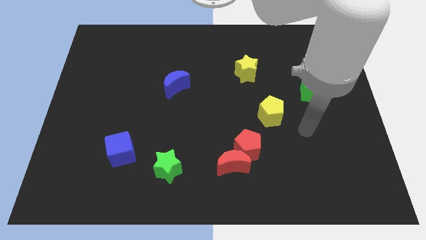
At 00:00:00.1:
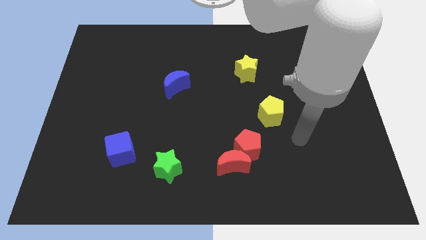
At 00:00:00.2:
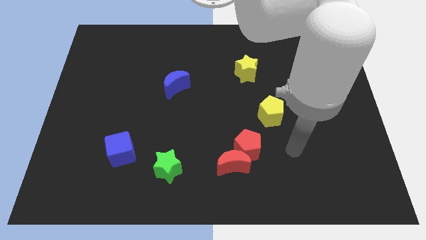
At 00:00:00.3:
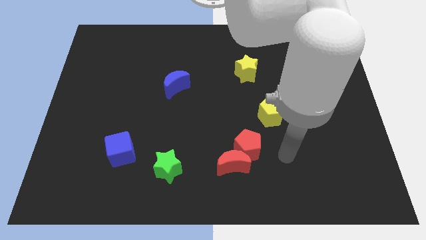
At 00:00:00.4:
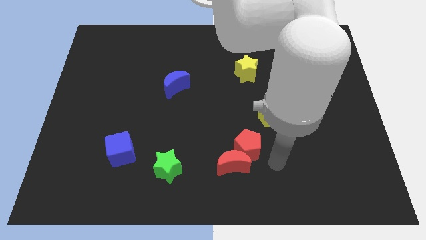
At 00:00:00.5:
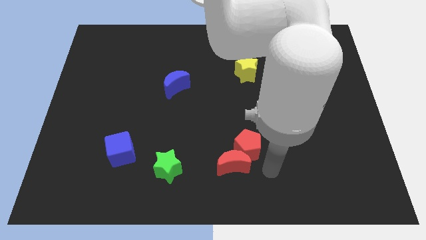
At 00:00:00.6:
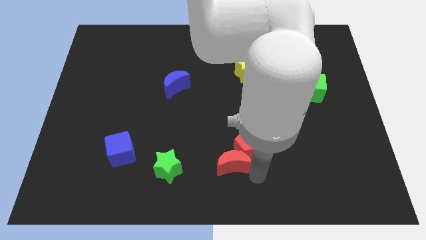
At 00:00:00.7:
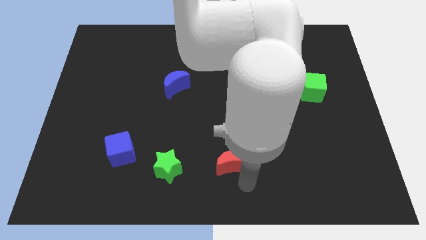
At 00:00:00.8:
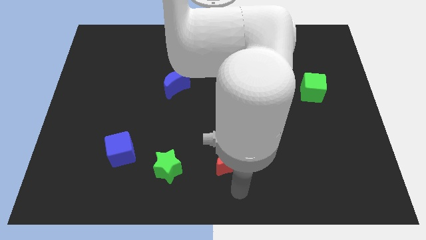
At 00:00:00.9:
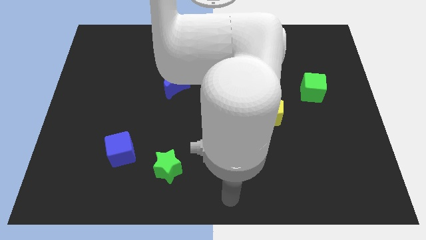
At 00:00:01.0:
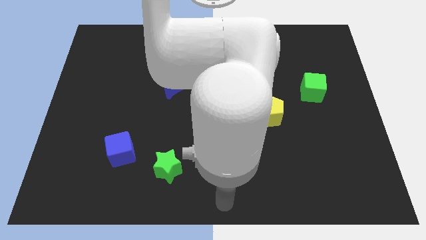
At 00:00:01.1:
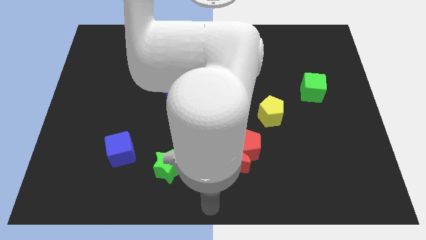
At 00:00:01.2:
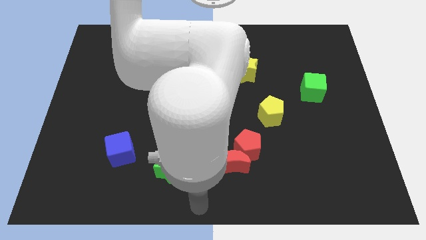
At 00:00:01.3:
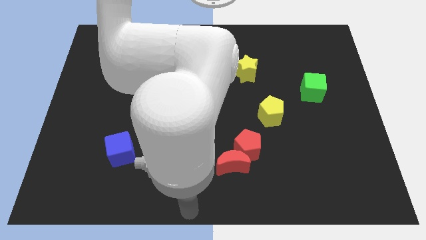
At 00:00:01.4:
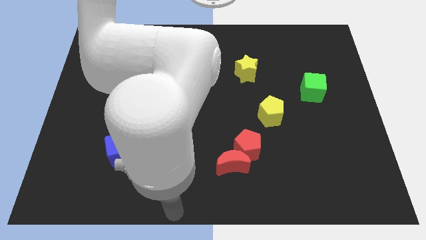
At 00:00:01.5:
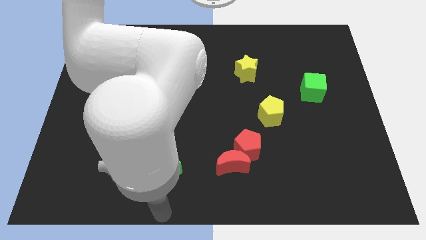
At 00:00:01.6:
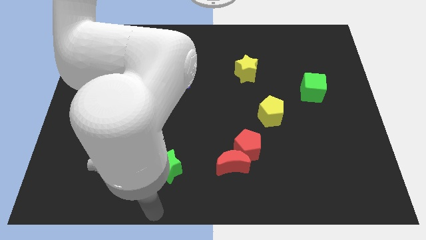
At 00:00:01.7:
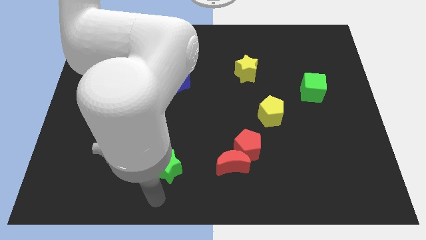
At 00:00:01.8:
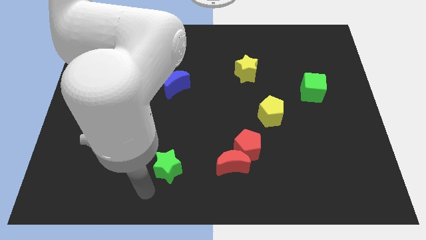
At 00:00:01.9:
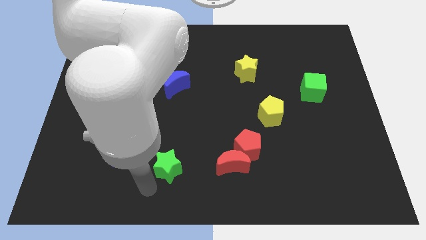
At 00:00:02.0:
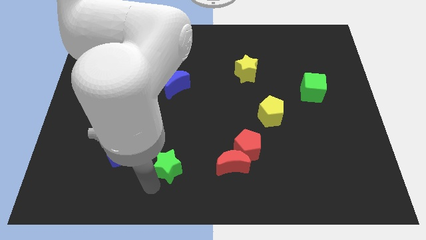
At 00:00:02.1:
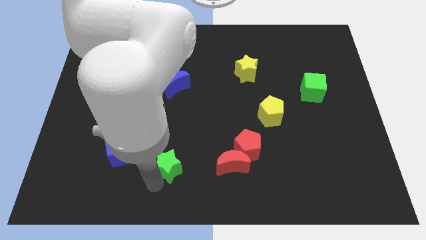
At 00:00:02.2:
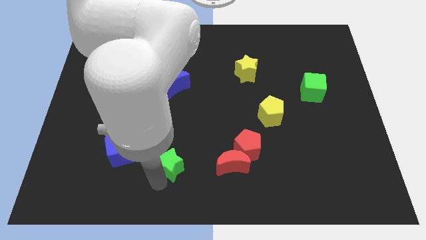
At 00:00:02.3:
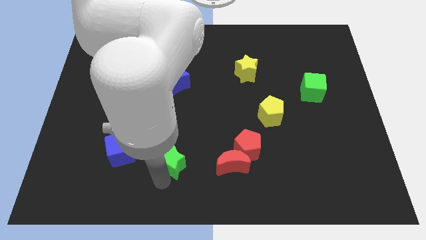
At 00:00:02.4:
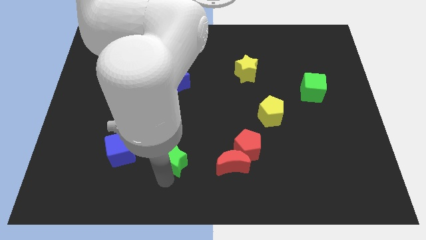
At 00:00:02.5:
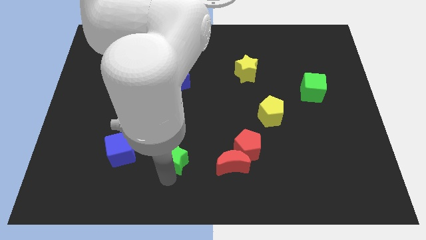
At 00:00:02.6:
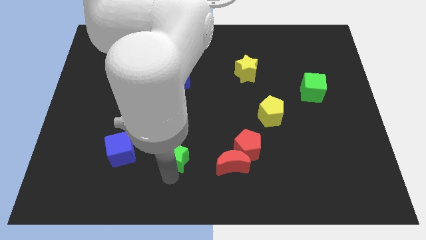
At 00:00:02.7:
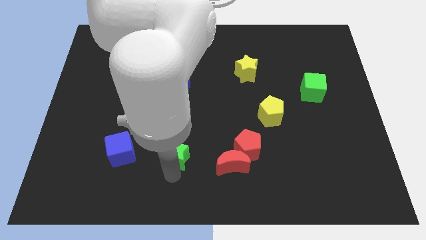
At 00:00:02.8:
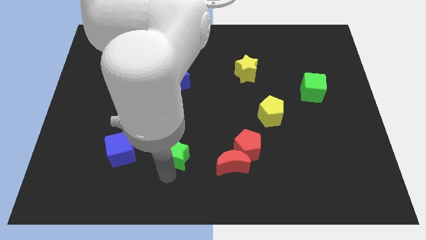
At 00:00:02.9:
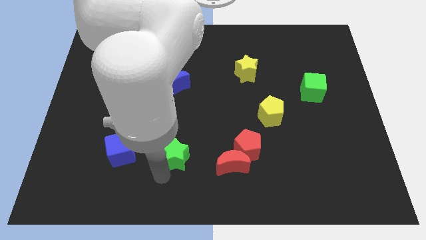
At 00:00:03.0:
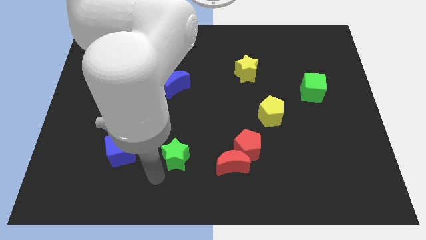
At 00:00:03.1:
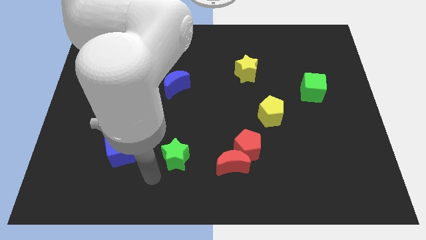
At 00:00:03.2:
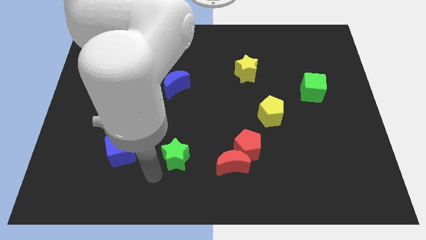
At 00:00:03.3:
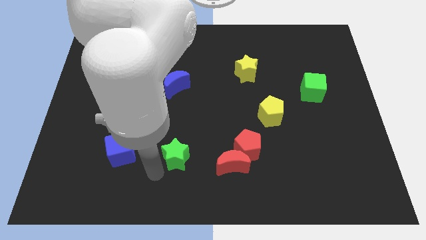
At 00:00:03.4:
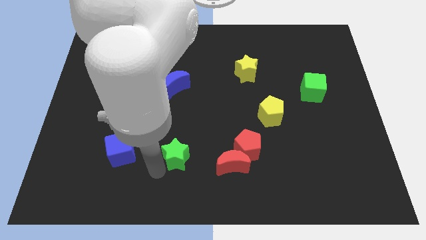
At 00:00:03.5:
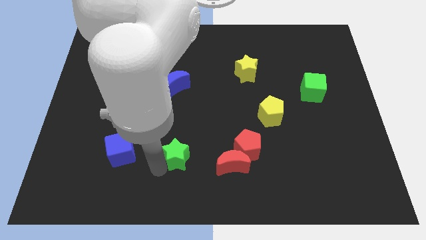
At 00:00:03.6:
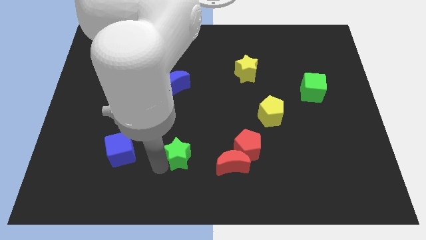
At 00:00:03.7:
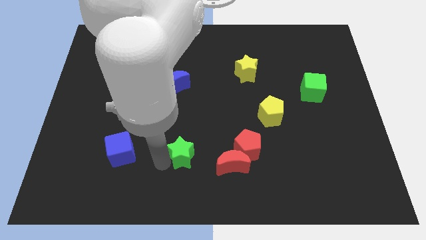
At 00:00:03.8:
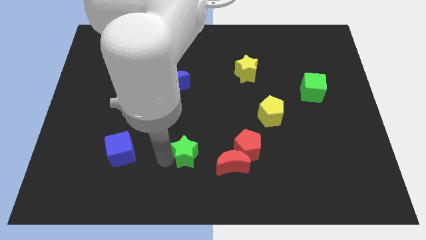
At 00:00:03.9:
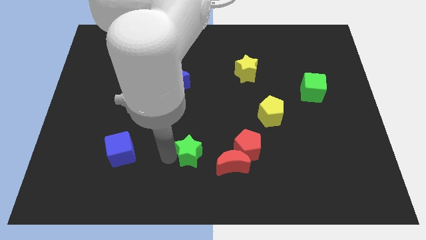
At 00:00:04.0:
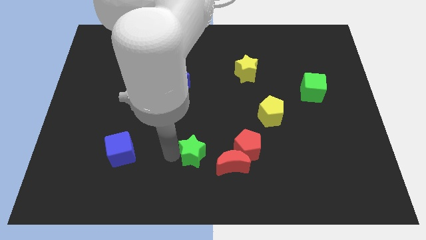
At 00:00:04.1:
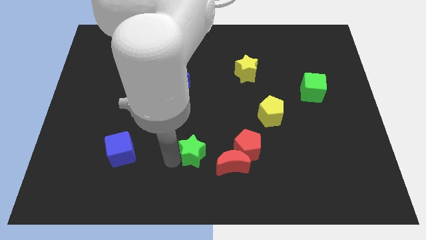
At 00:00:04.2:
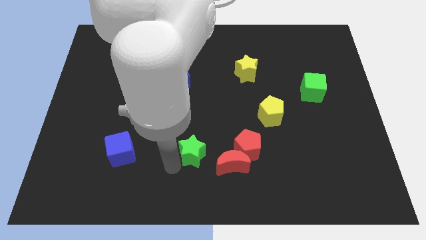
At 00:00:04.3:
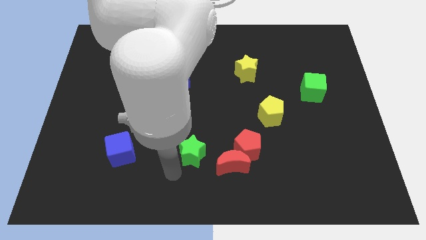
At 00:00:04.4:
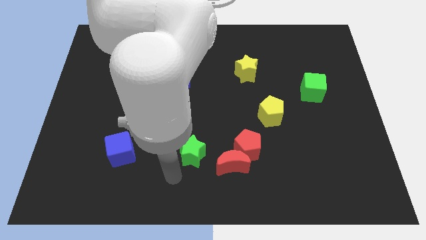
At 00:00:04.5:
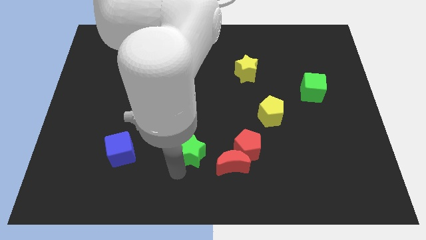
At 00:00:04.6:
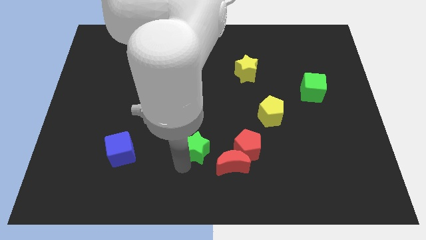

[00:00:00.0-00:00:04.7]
slightly slide the green star upwards and to the right diagonally

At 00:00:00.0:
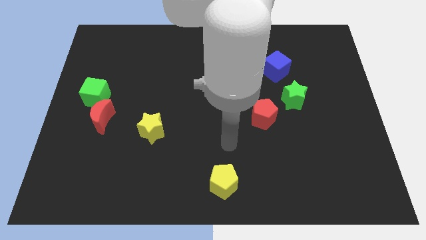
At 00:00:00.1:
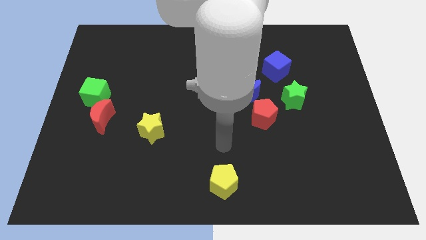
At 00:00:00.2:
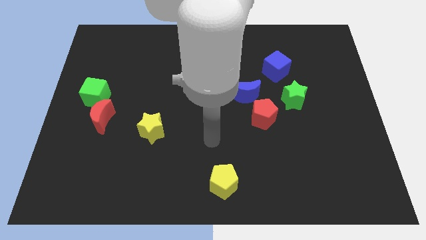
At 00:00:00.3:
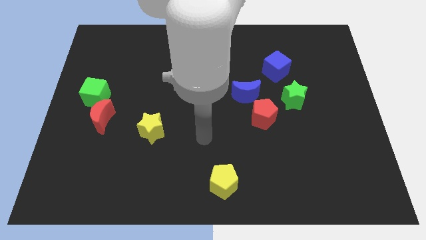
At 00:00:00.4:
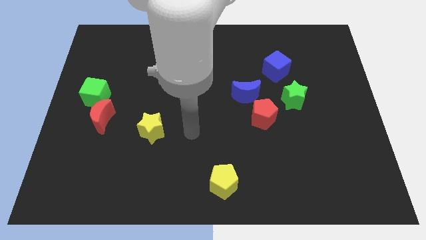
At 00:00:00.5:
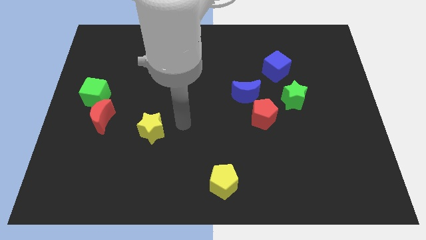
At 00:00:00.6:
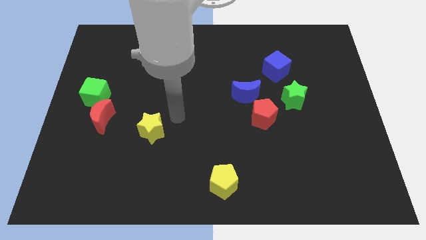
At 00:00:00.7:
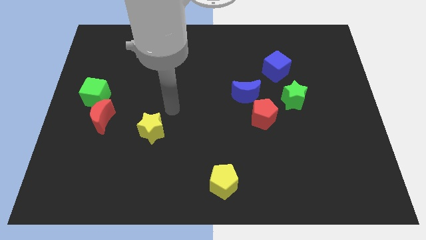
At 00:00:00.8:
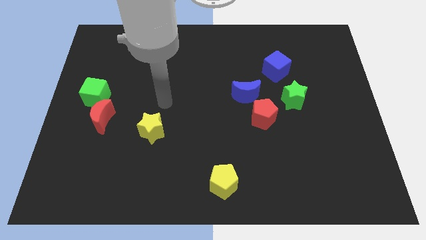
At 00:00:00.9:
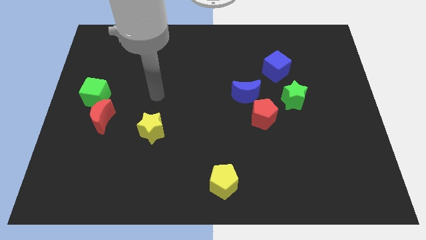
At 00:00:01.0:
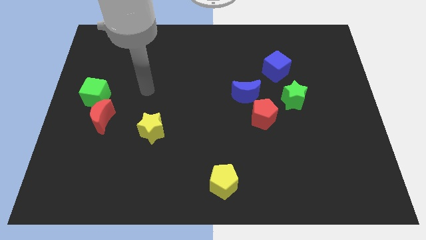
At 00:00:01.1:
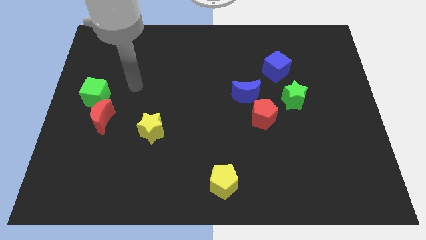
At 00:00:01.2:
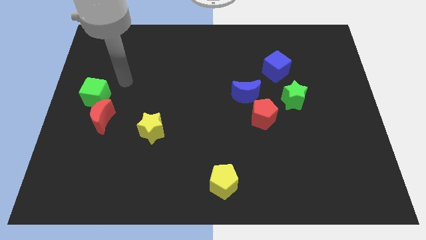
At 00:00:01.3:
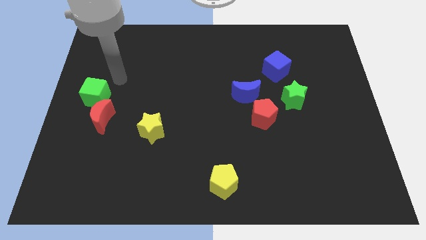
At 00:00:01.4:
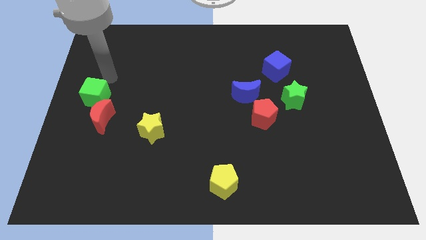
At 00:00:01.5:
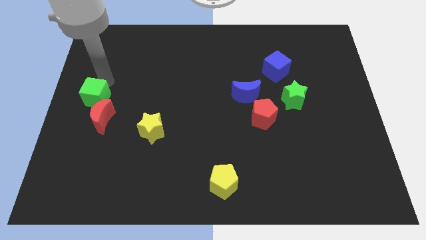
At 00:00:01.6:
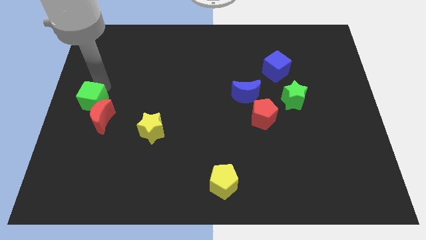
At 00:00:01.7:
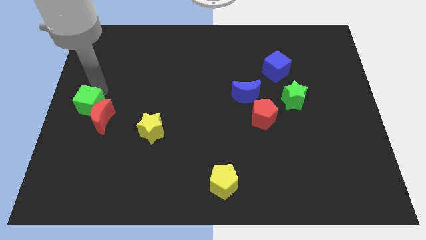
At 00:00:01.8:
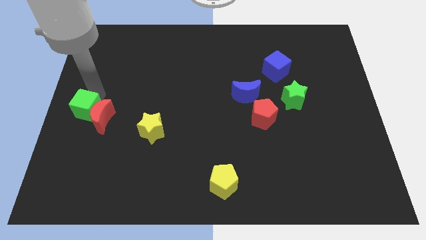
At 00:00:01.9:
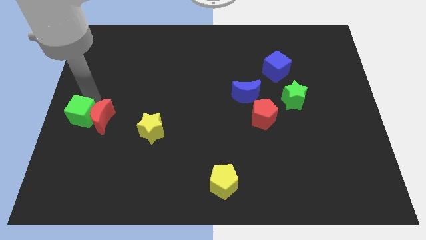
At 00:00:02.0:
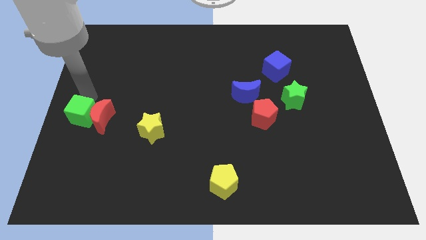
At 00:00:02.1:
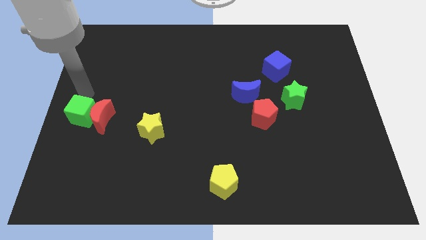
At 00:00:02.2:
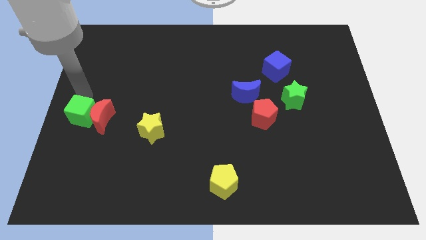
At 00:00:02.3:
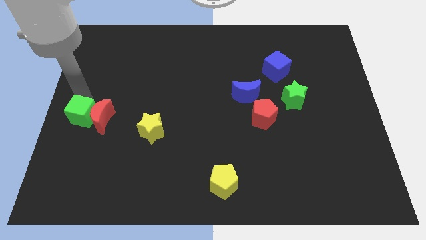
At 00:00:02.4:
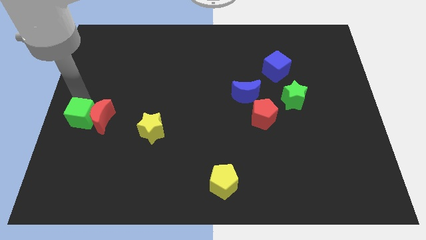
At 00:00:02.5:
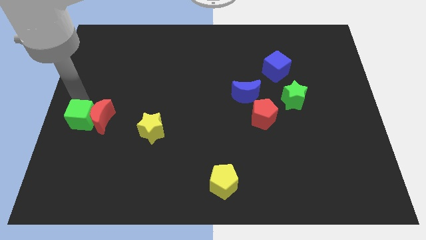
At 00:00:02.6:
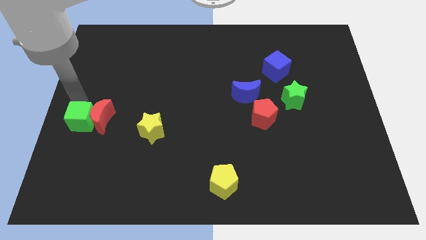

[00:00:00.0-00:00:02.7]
push the green cube downwards a bit

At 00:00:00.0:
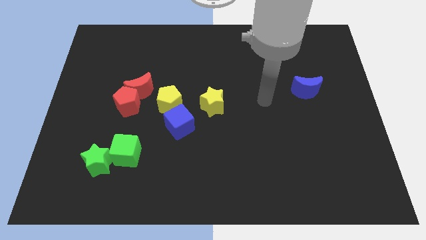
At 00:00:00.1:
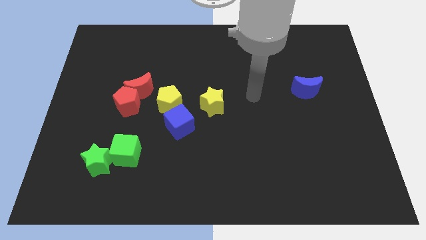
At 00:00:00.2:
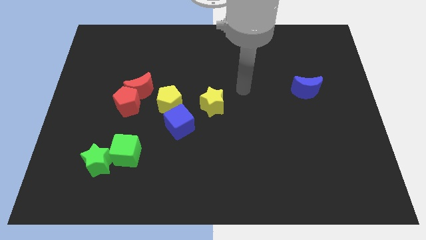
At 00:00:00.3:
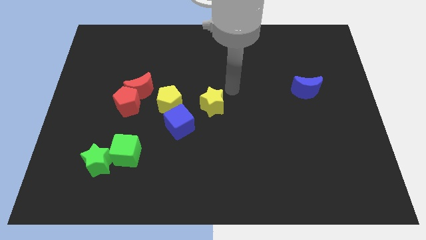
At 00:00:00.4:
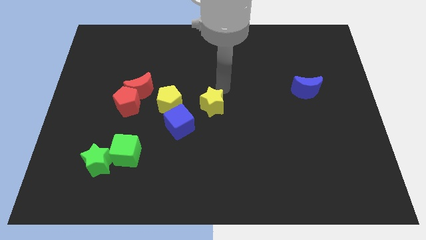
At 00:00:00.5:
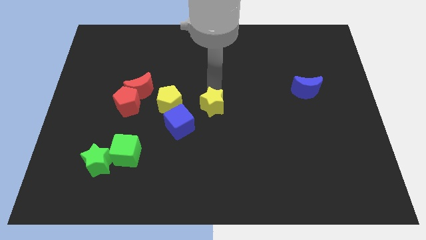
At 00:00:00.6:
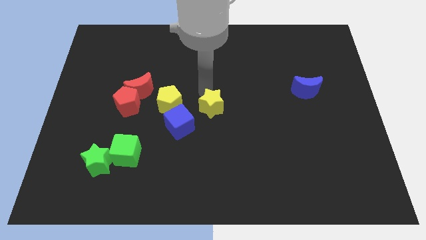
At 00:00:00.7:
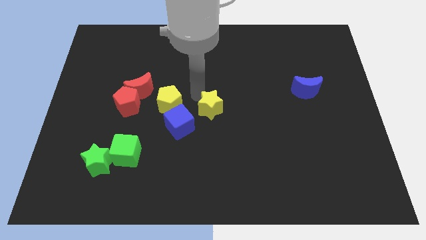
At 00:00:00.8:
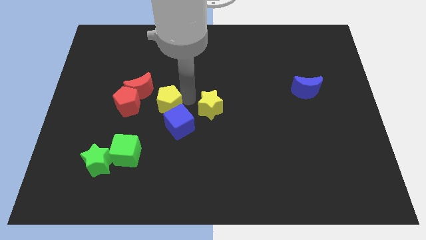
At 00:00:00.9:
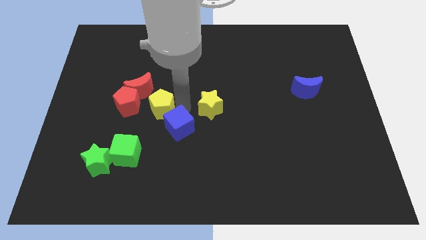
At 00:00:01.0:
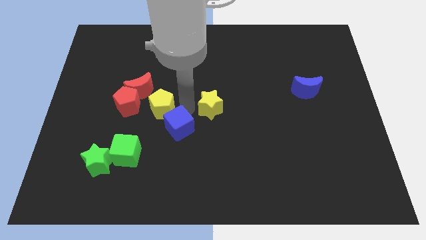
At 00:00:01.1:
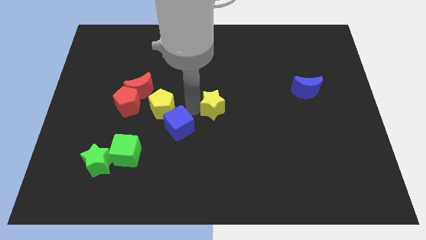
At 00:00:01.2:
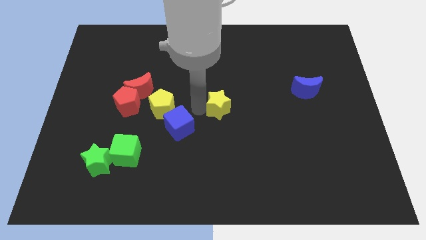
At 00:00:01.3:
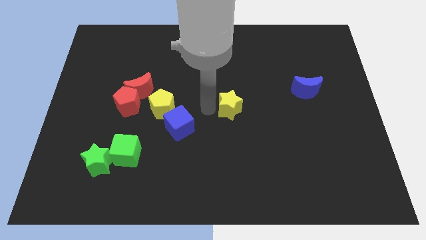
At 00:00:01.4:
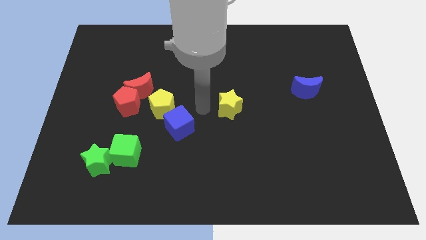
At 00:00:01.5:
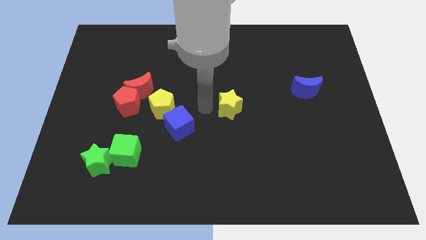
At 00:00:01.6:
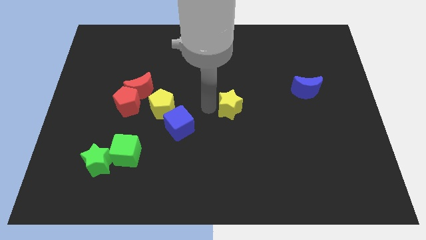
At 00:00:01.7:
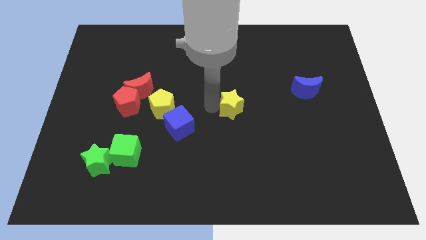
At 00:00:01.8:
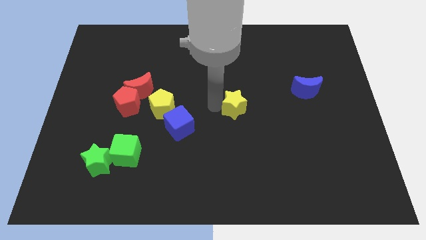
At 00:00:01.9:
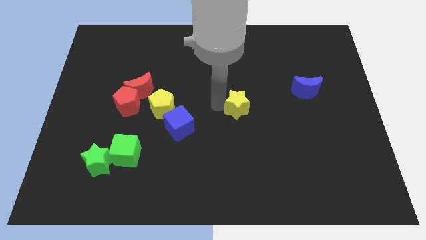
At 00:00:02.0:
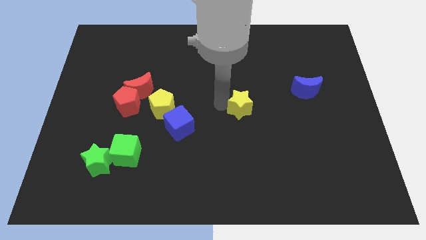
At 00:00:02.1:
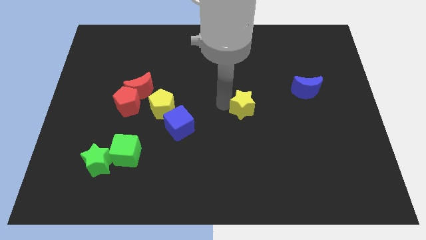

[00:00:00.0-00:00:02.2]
move the yellow star slightly right
